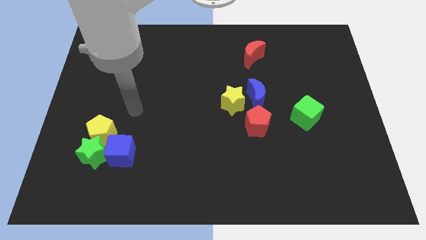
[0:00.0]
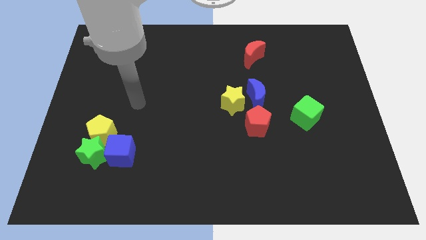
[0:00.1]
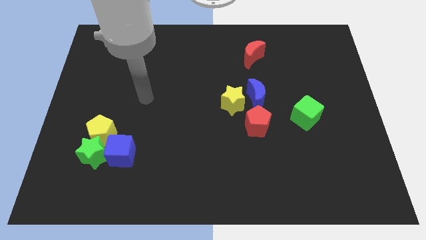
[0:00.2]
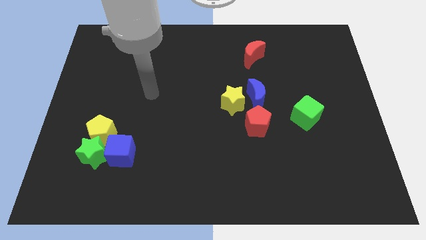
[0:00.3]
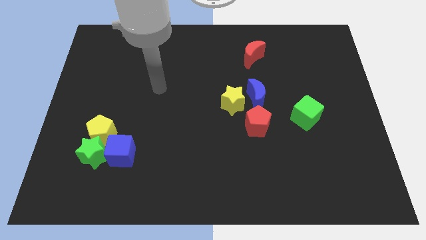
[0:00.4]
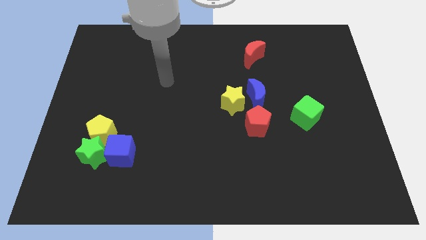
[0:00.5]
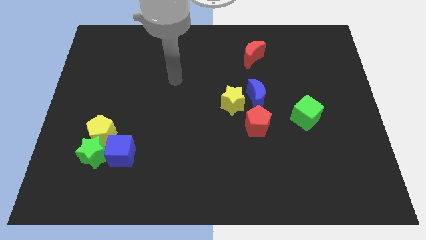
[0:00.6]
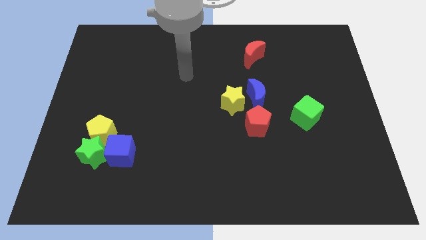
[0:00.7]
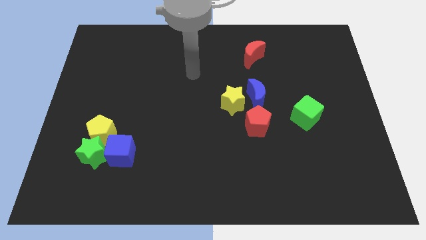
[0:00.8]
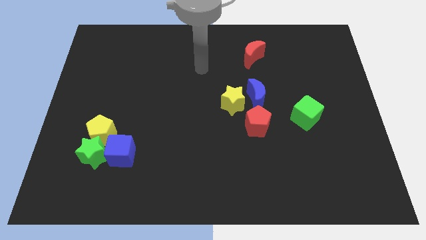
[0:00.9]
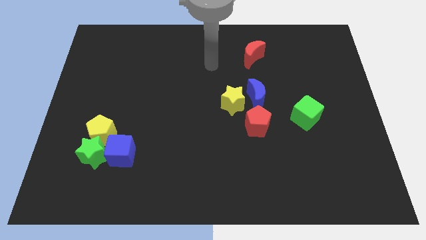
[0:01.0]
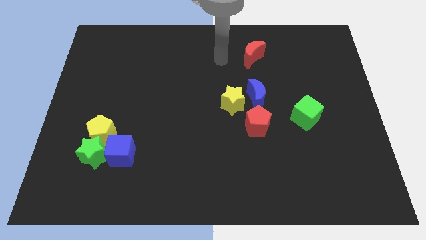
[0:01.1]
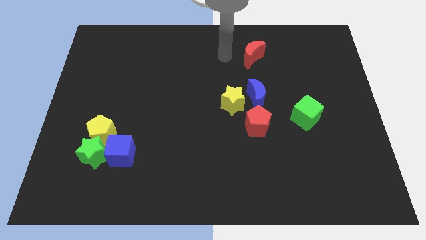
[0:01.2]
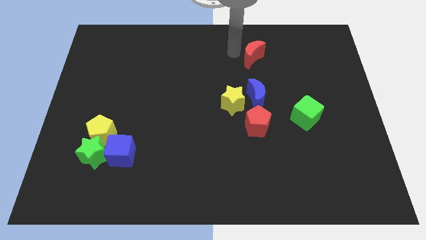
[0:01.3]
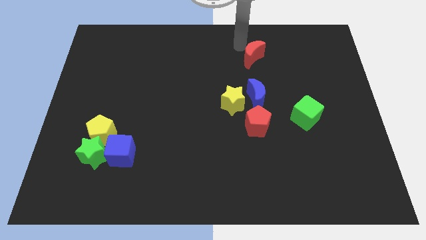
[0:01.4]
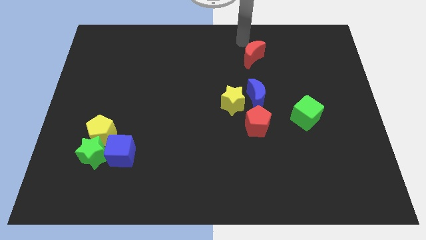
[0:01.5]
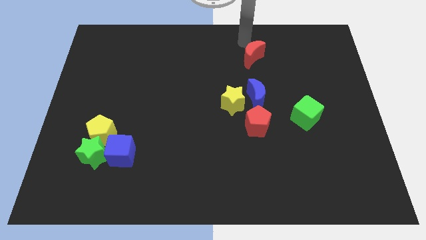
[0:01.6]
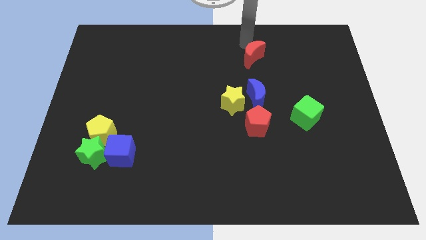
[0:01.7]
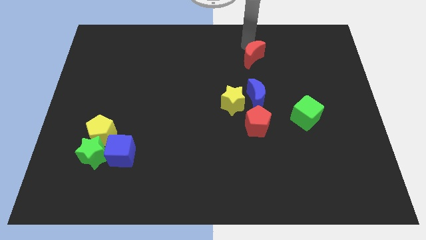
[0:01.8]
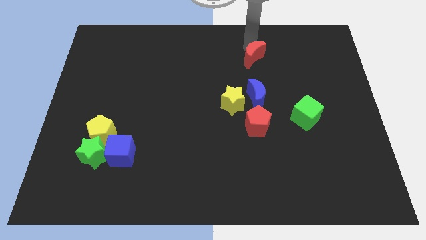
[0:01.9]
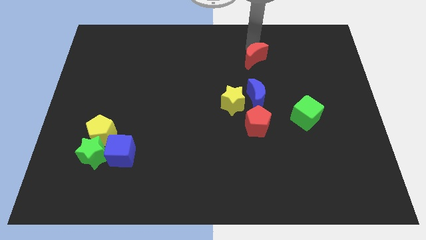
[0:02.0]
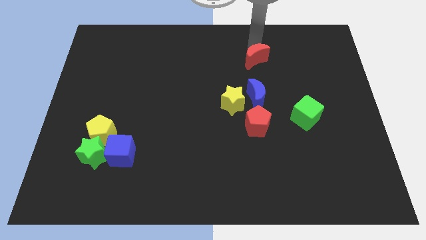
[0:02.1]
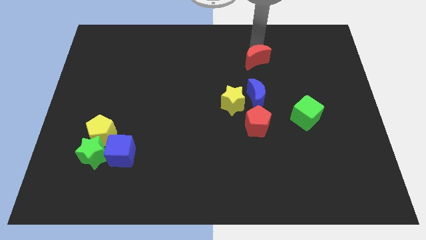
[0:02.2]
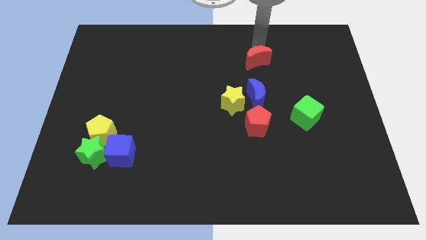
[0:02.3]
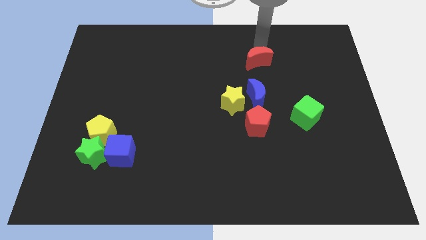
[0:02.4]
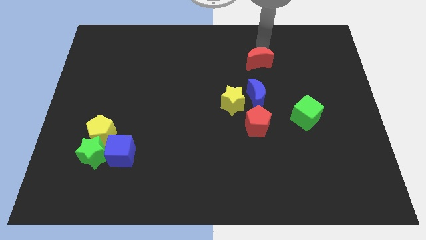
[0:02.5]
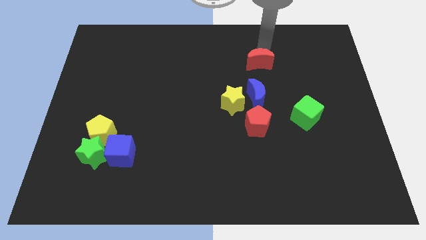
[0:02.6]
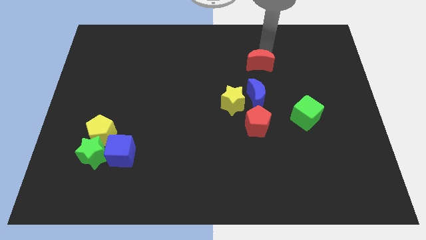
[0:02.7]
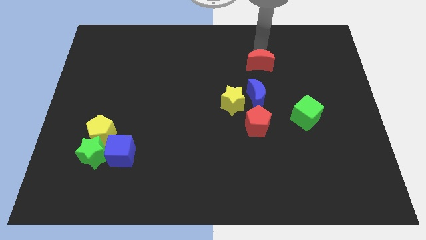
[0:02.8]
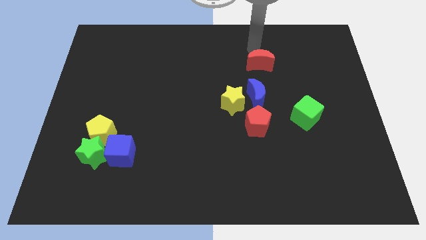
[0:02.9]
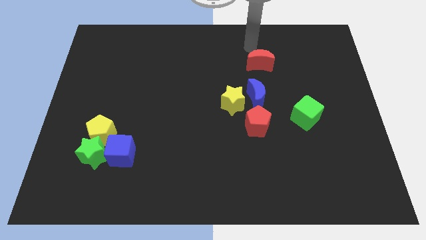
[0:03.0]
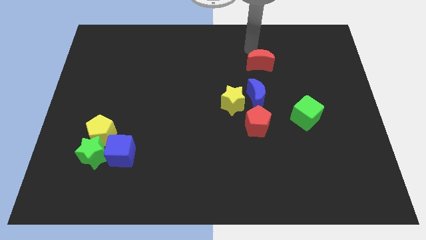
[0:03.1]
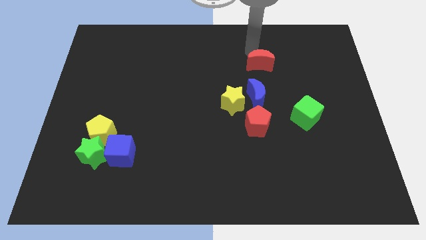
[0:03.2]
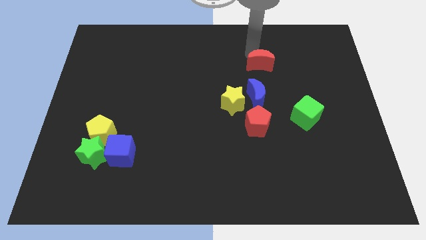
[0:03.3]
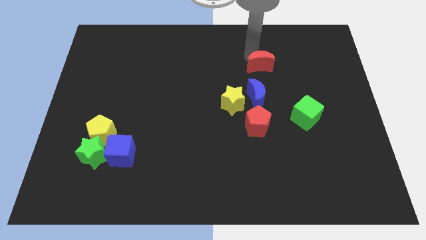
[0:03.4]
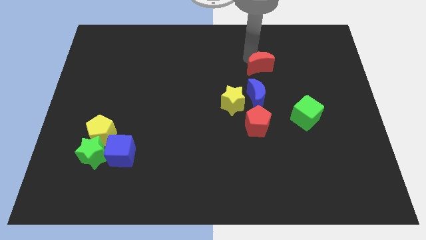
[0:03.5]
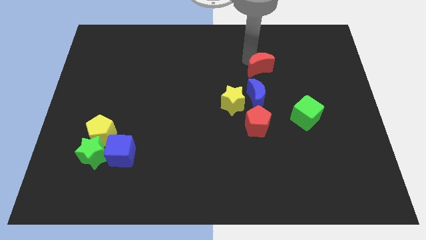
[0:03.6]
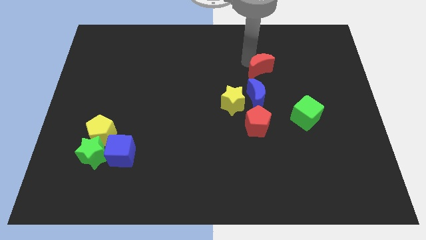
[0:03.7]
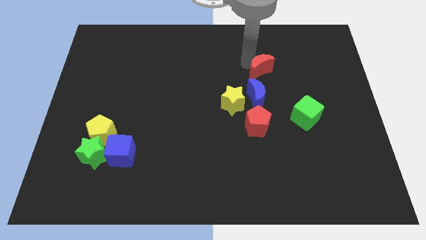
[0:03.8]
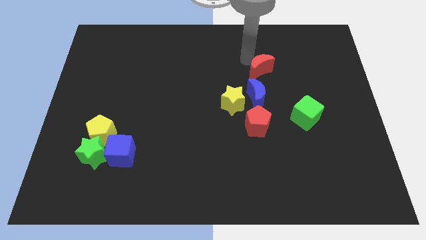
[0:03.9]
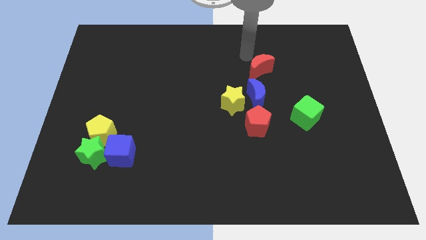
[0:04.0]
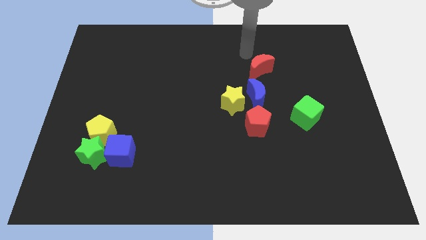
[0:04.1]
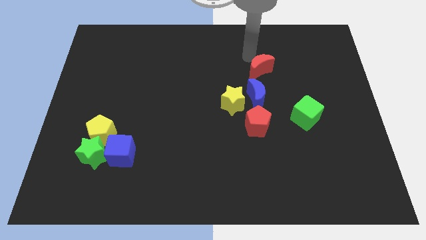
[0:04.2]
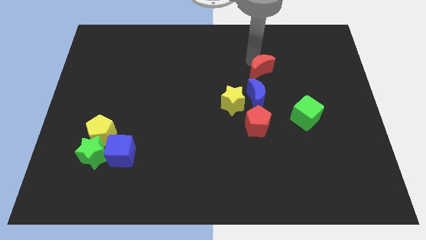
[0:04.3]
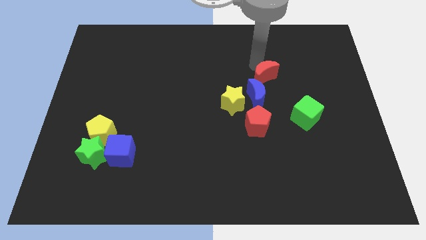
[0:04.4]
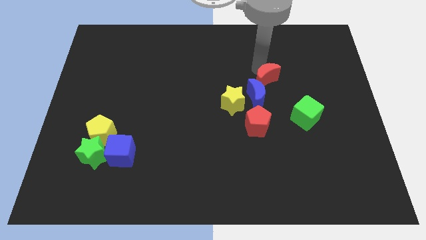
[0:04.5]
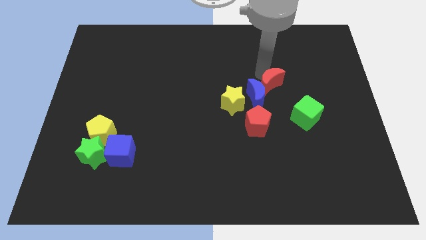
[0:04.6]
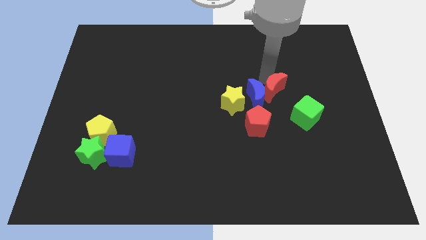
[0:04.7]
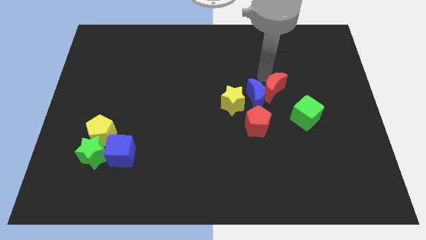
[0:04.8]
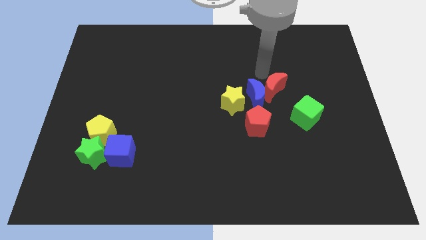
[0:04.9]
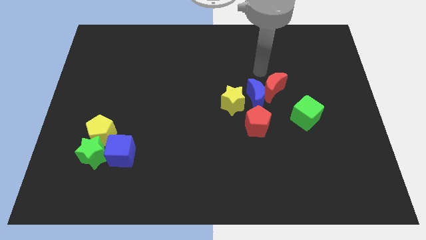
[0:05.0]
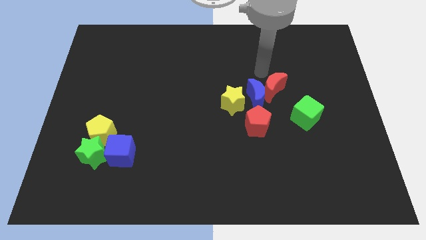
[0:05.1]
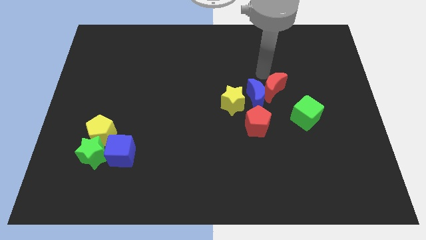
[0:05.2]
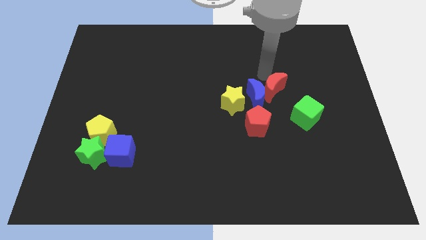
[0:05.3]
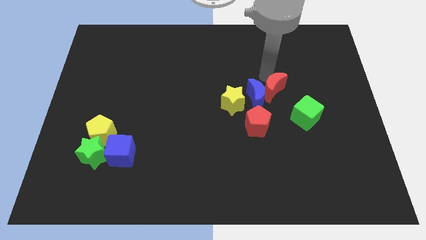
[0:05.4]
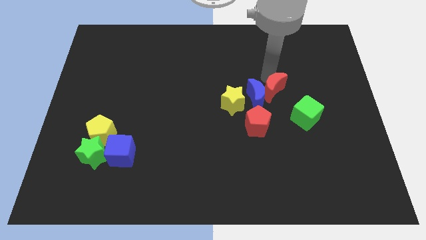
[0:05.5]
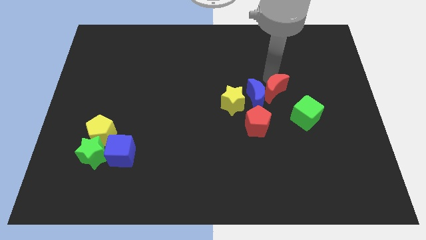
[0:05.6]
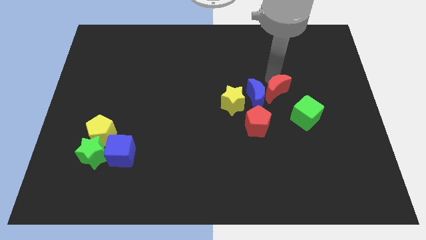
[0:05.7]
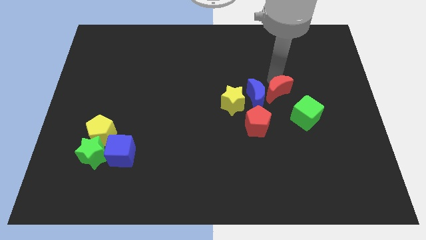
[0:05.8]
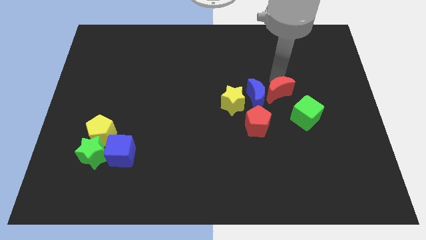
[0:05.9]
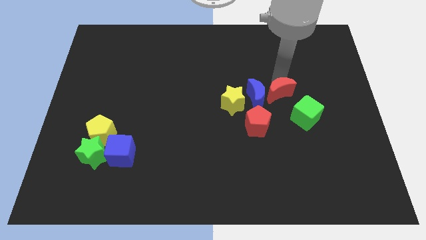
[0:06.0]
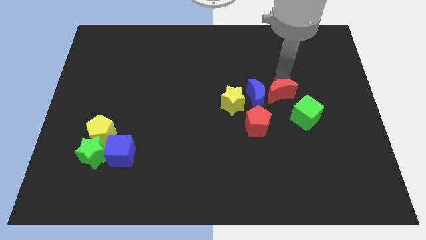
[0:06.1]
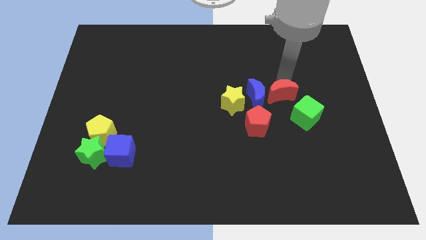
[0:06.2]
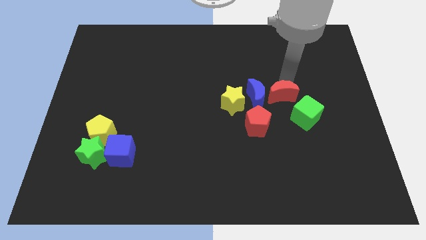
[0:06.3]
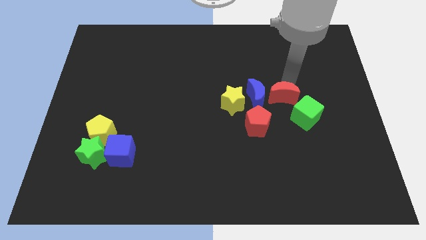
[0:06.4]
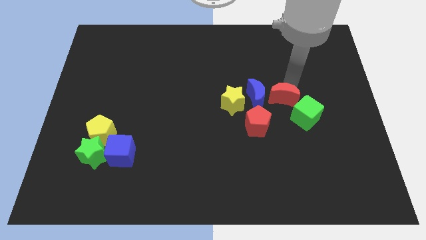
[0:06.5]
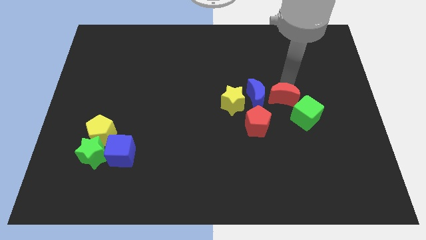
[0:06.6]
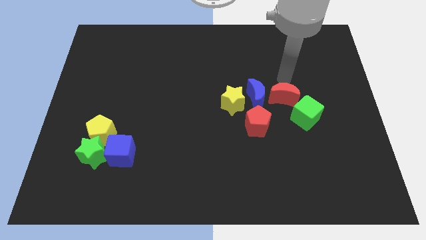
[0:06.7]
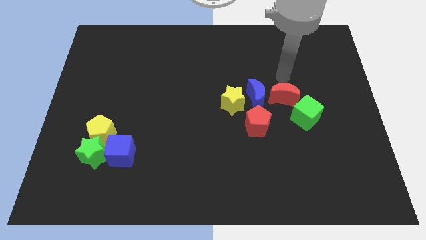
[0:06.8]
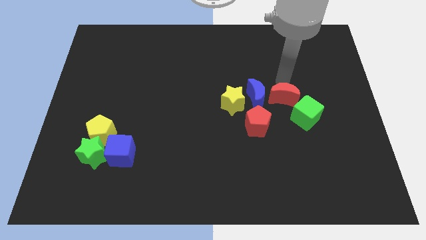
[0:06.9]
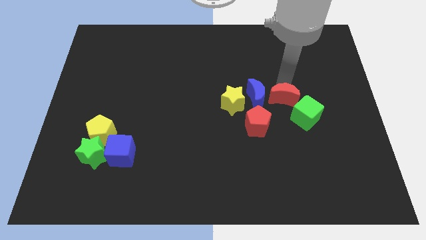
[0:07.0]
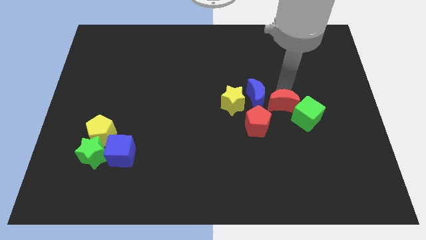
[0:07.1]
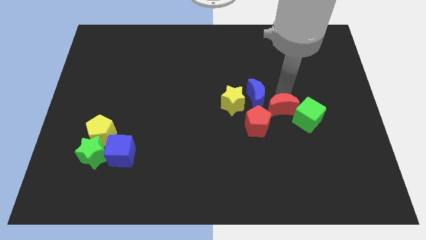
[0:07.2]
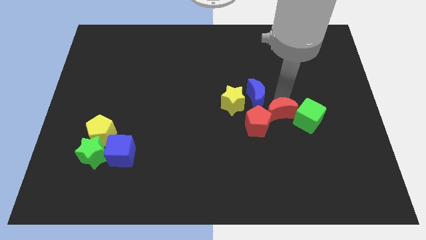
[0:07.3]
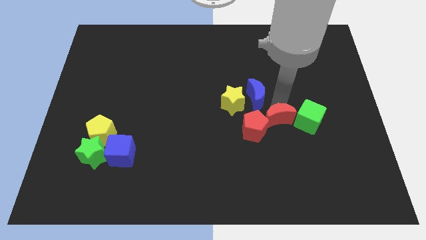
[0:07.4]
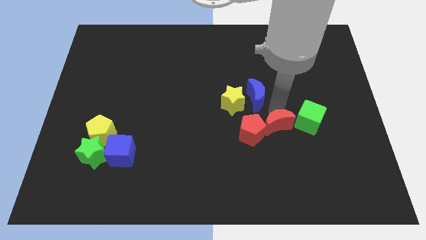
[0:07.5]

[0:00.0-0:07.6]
put the red moon to the bottom left side of the green cube
